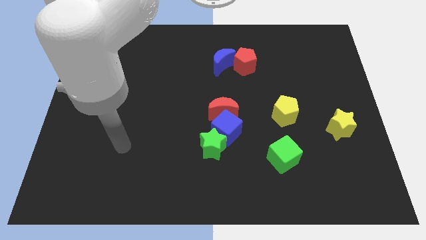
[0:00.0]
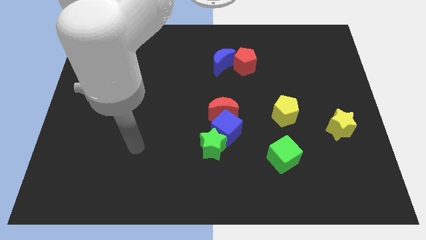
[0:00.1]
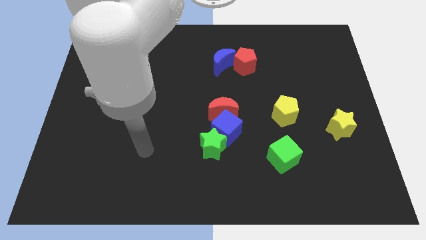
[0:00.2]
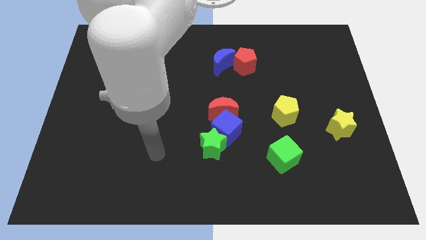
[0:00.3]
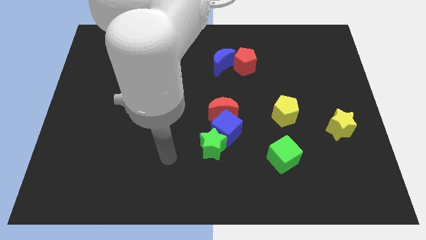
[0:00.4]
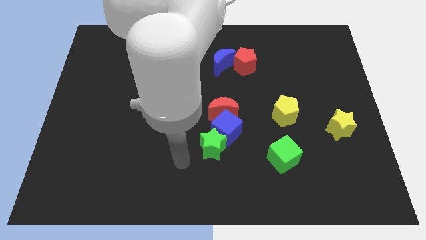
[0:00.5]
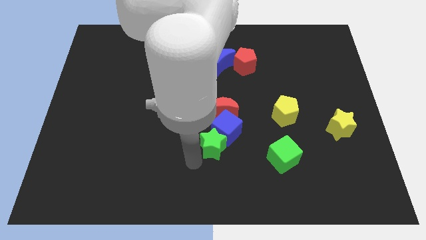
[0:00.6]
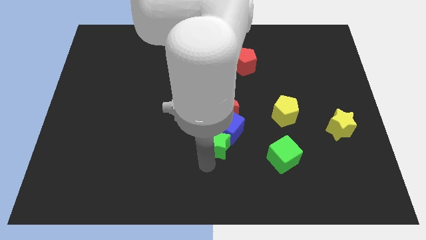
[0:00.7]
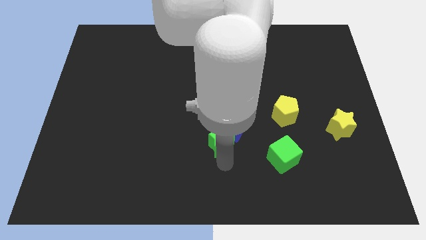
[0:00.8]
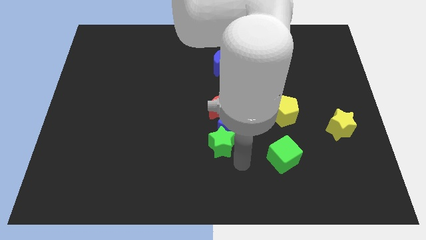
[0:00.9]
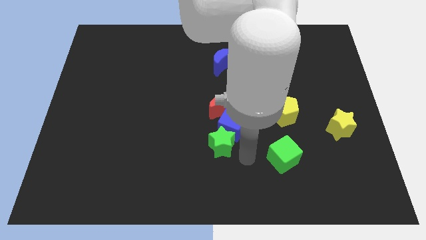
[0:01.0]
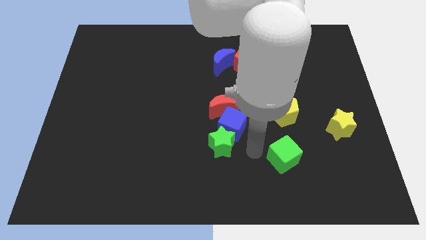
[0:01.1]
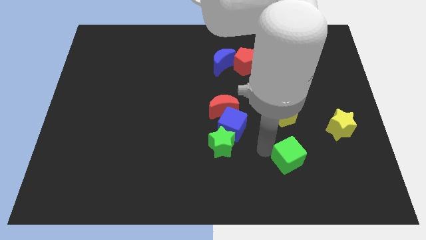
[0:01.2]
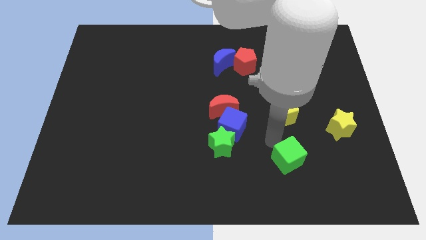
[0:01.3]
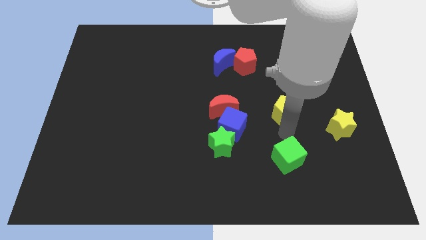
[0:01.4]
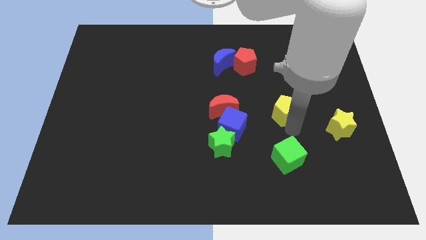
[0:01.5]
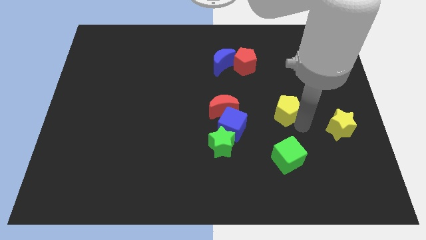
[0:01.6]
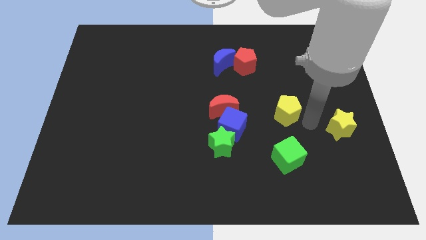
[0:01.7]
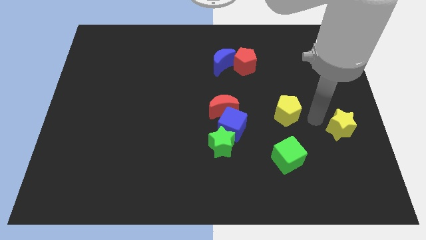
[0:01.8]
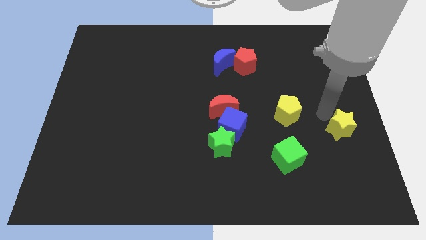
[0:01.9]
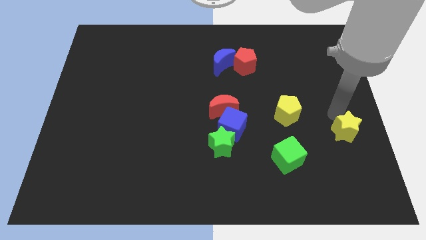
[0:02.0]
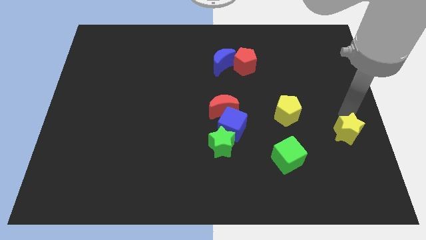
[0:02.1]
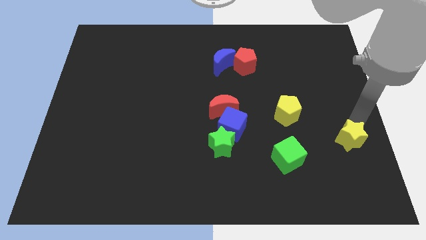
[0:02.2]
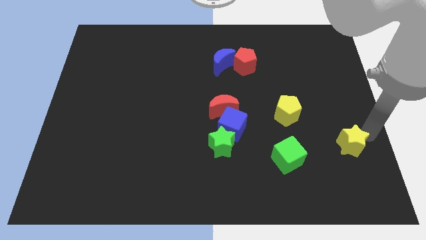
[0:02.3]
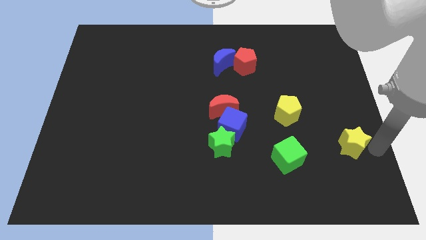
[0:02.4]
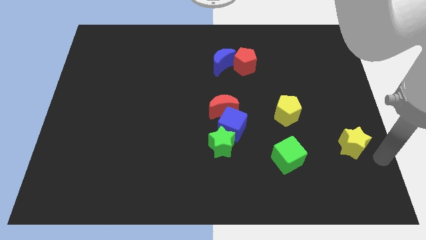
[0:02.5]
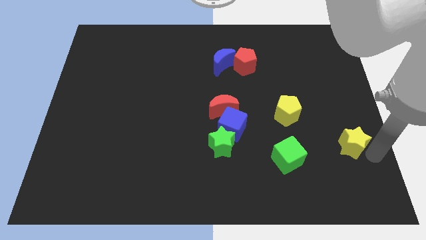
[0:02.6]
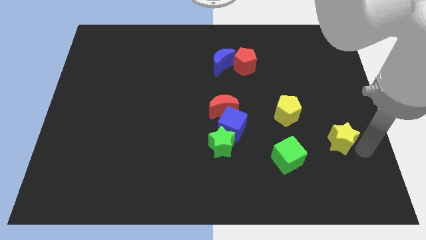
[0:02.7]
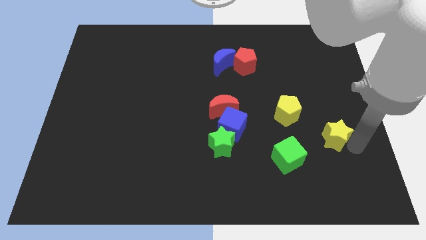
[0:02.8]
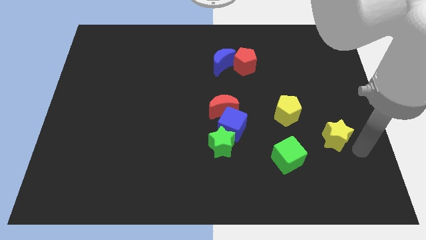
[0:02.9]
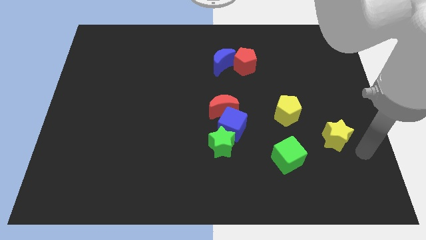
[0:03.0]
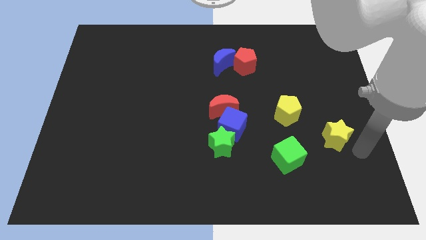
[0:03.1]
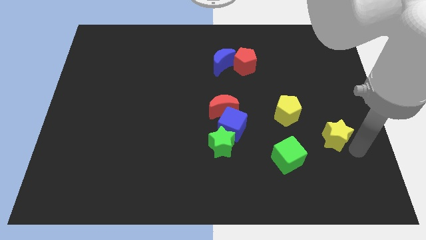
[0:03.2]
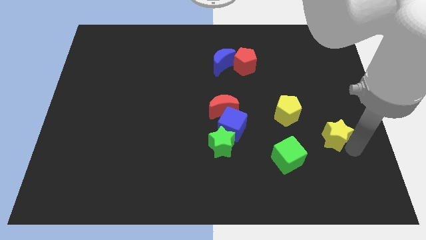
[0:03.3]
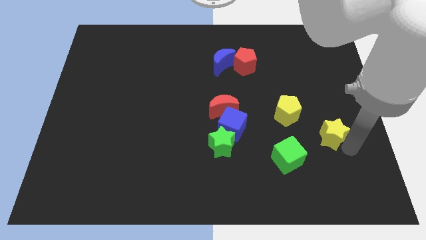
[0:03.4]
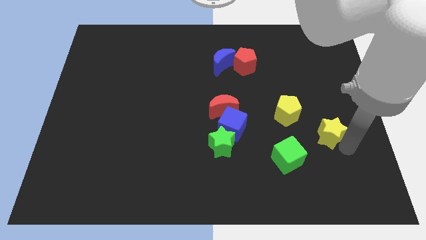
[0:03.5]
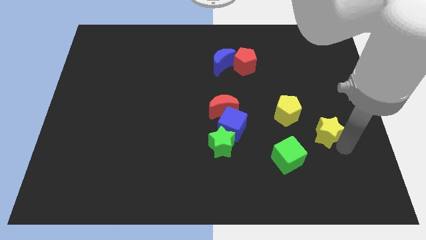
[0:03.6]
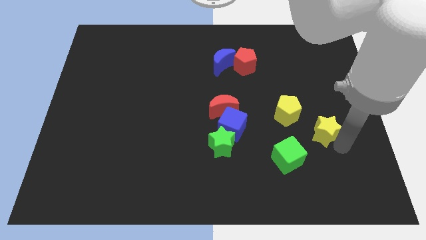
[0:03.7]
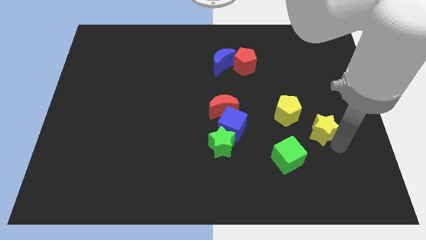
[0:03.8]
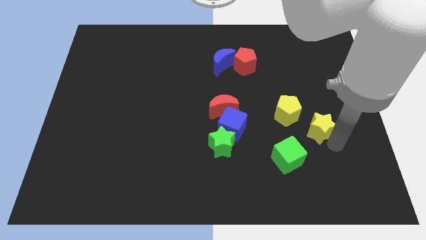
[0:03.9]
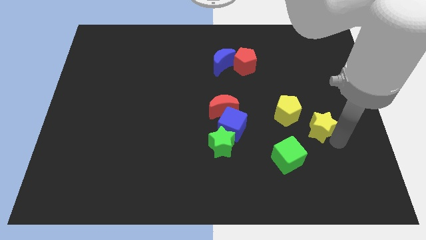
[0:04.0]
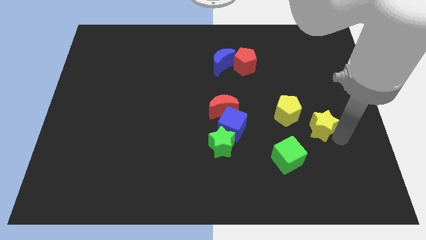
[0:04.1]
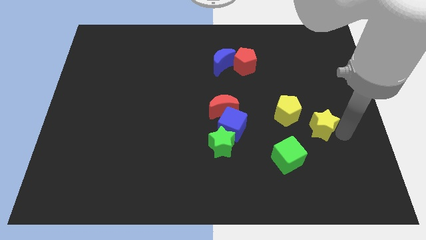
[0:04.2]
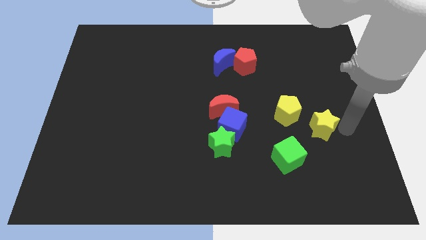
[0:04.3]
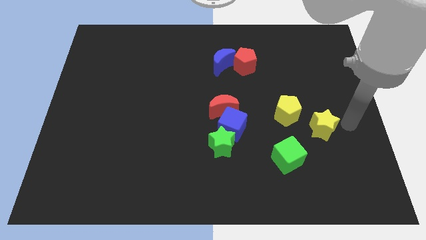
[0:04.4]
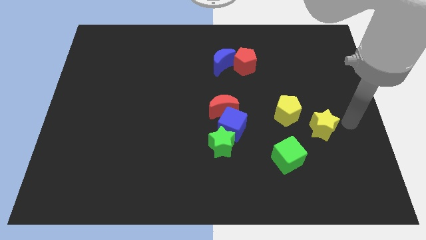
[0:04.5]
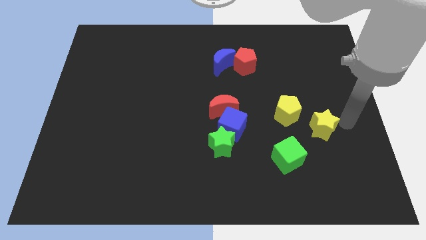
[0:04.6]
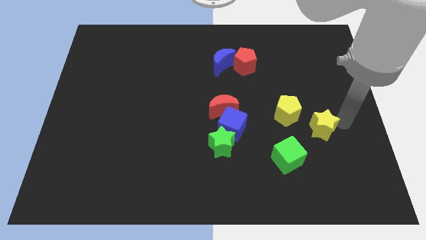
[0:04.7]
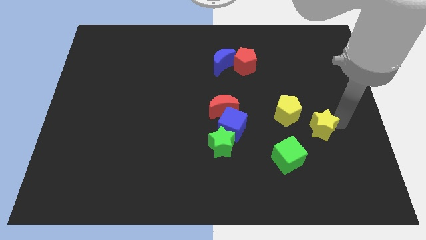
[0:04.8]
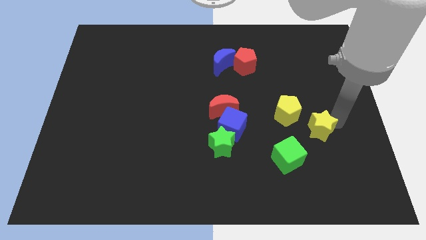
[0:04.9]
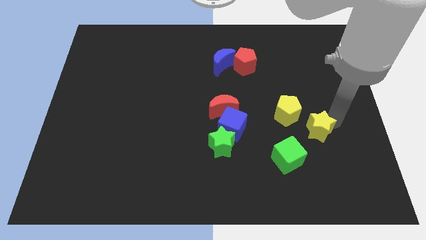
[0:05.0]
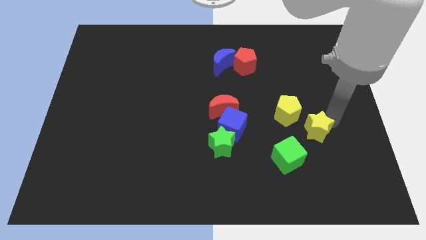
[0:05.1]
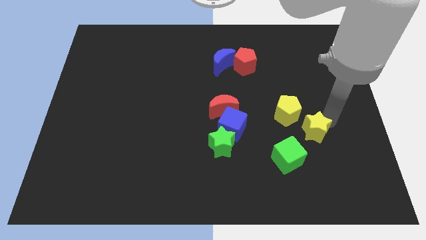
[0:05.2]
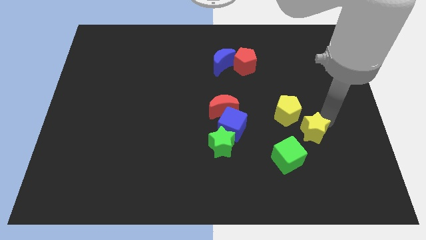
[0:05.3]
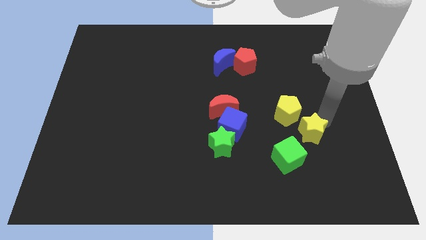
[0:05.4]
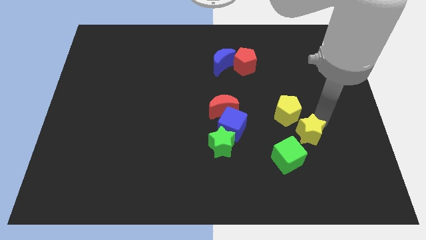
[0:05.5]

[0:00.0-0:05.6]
move the yellow star left a little bit

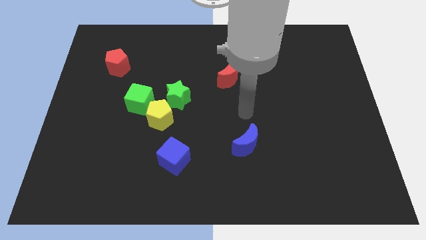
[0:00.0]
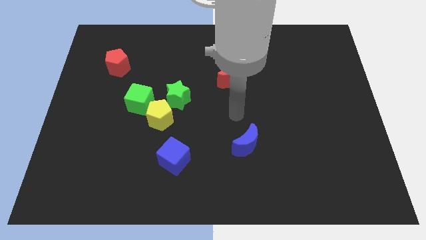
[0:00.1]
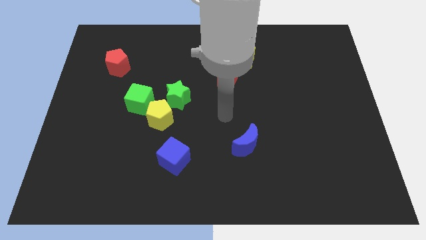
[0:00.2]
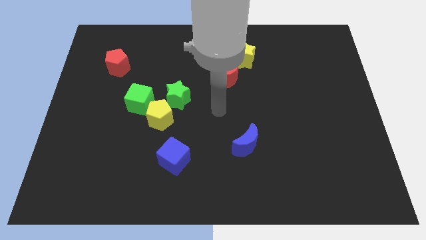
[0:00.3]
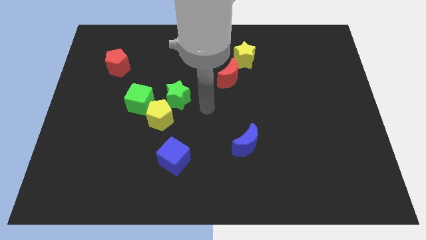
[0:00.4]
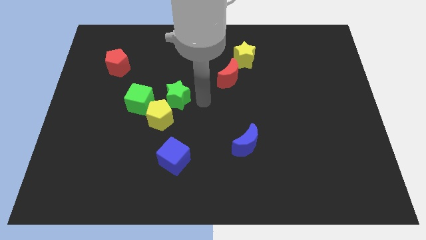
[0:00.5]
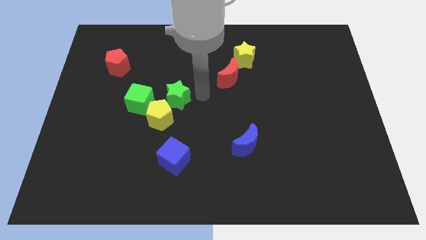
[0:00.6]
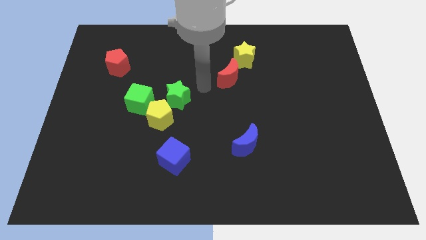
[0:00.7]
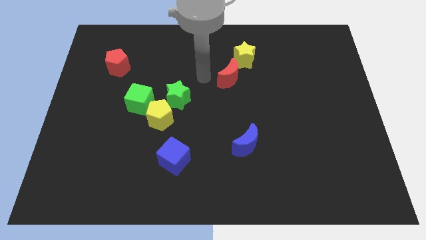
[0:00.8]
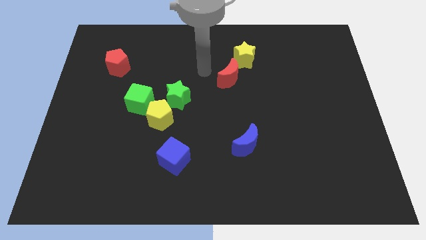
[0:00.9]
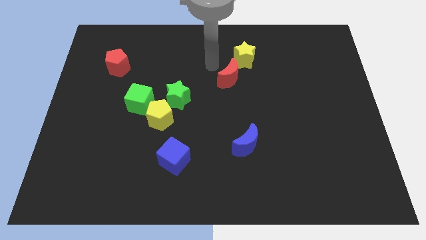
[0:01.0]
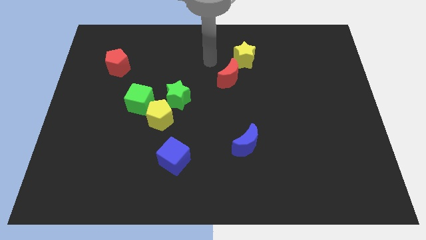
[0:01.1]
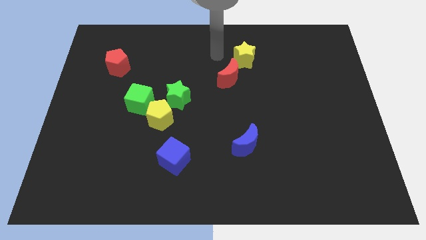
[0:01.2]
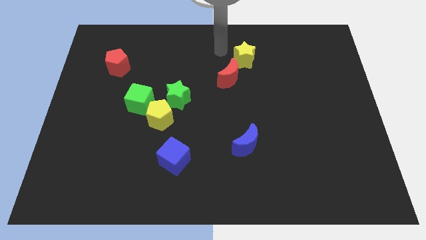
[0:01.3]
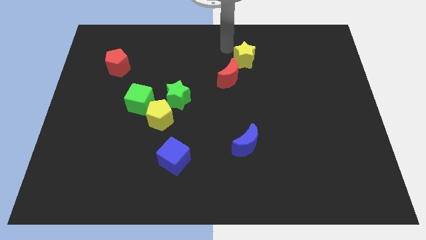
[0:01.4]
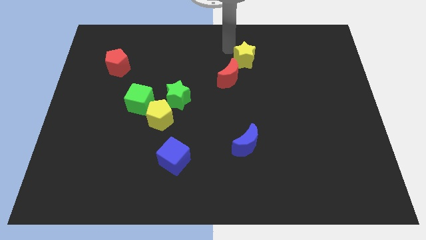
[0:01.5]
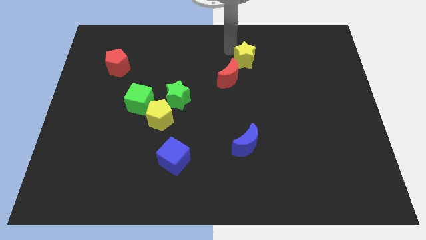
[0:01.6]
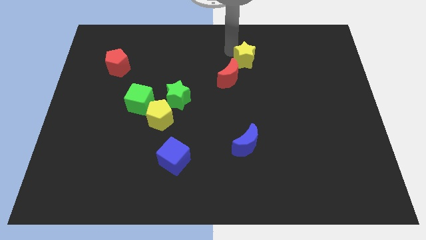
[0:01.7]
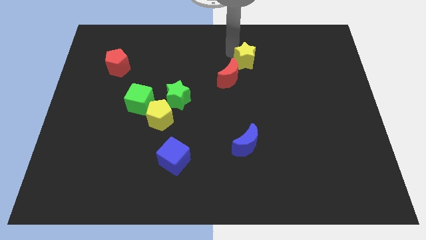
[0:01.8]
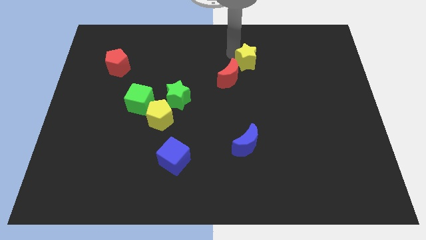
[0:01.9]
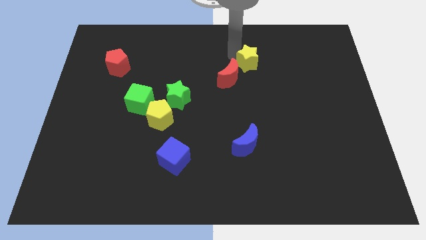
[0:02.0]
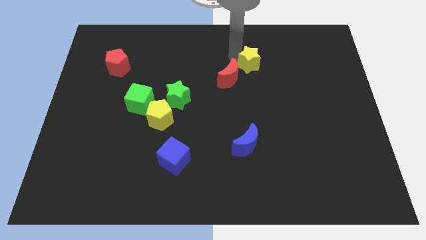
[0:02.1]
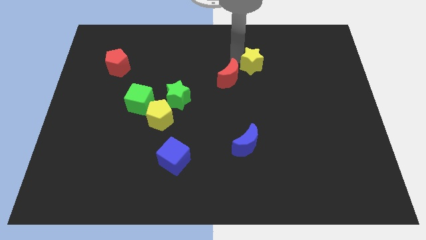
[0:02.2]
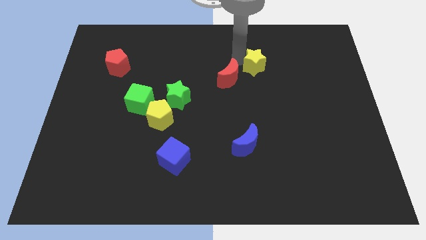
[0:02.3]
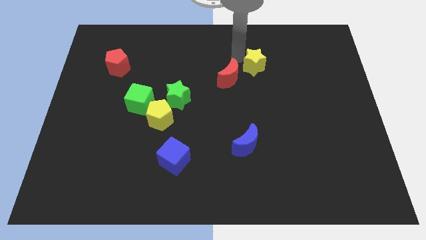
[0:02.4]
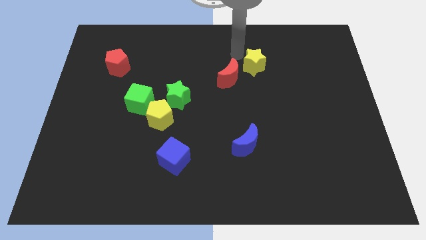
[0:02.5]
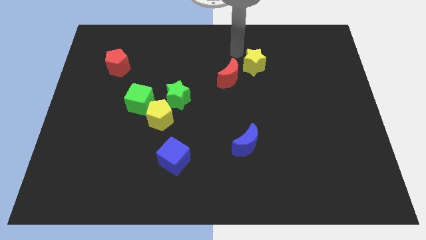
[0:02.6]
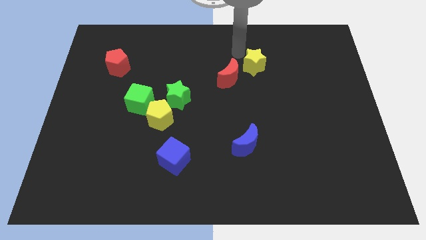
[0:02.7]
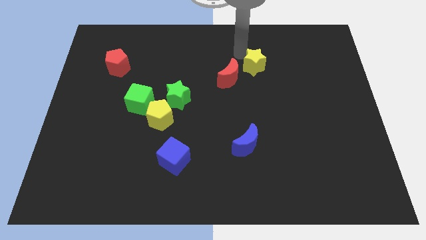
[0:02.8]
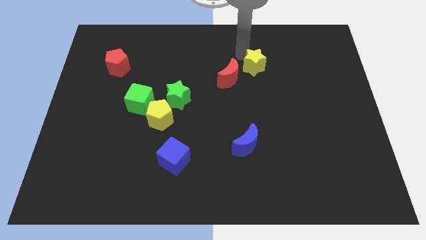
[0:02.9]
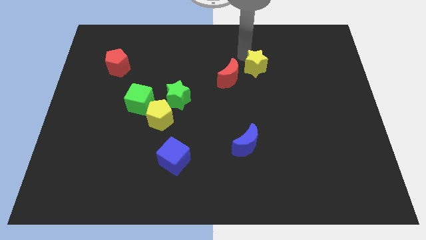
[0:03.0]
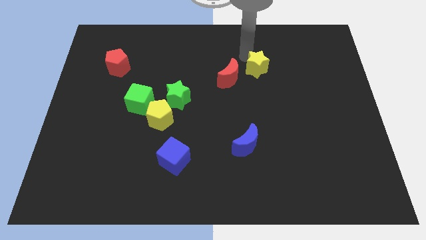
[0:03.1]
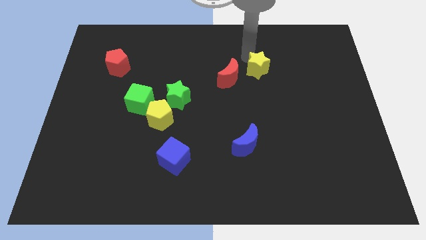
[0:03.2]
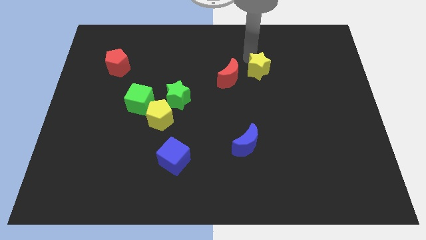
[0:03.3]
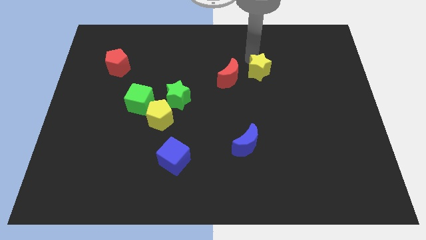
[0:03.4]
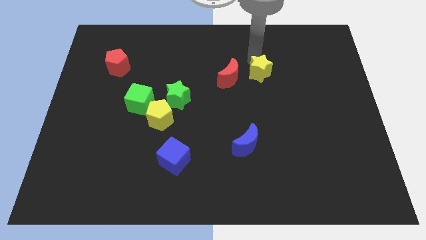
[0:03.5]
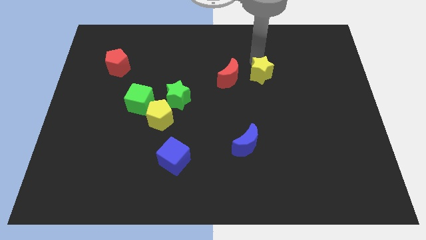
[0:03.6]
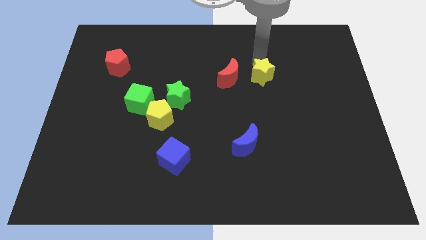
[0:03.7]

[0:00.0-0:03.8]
slightly push the yellow star down and right
